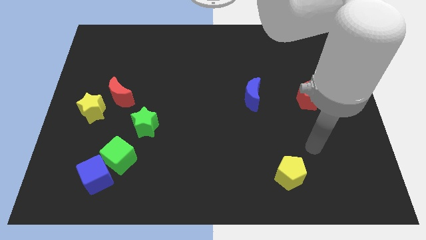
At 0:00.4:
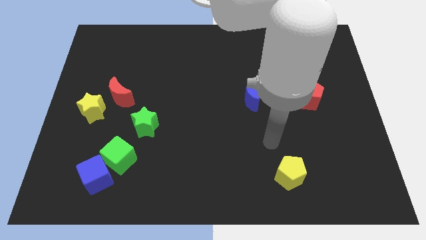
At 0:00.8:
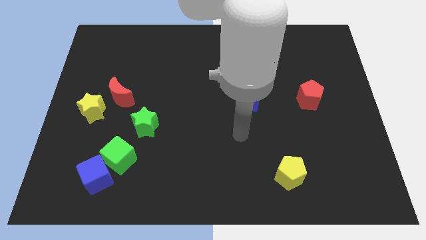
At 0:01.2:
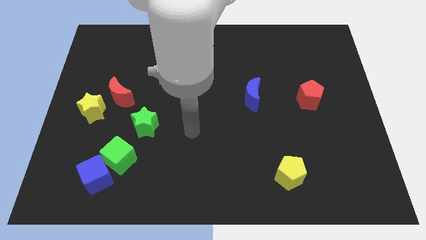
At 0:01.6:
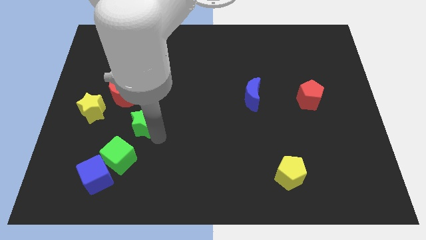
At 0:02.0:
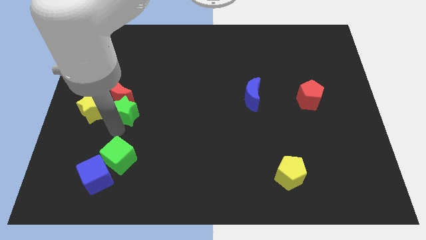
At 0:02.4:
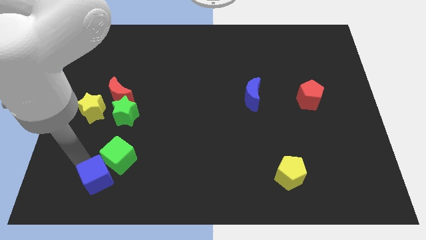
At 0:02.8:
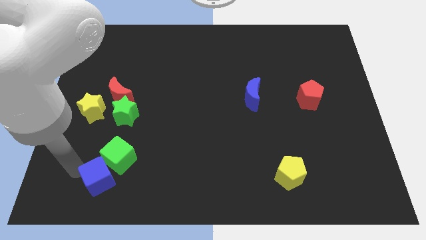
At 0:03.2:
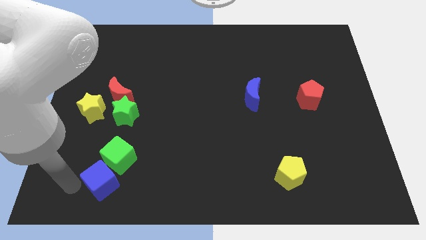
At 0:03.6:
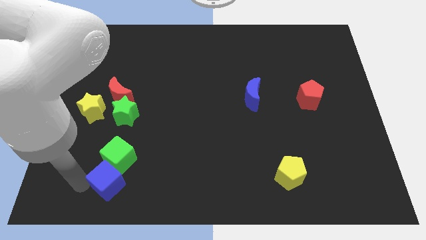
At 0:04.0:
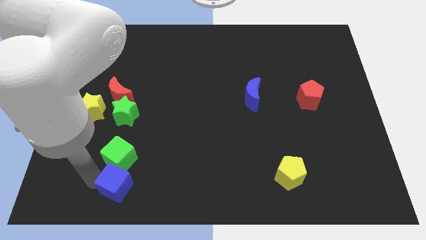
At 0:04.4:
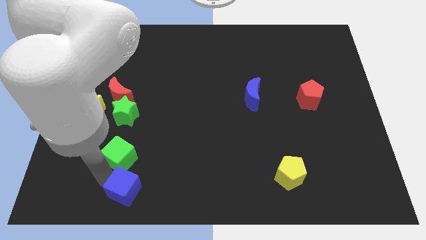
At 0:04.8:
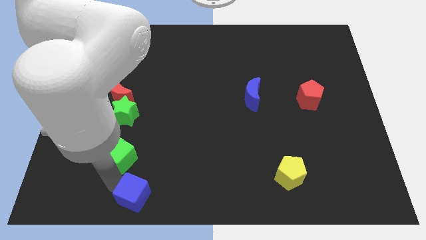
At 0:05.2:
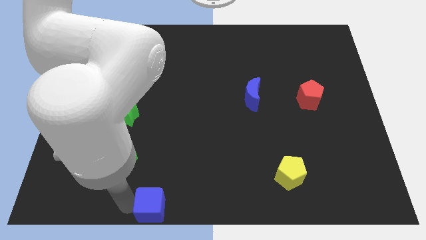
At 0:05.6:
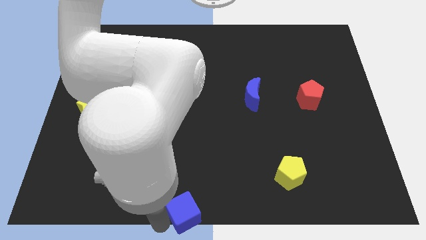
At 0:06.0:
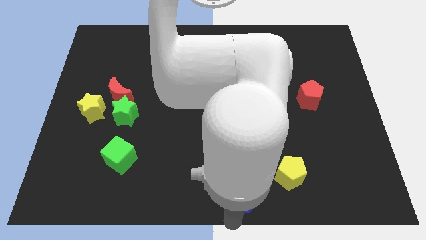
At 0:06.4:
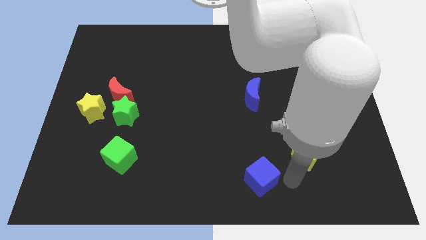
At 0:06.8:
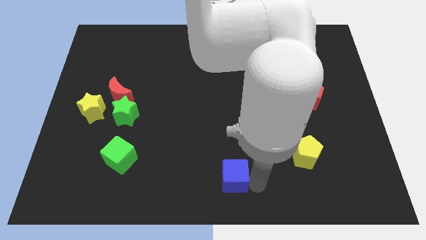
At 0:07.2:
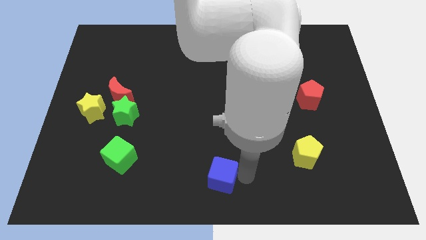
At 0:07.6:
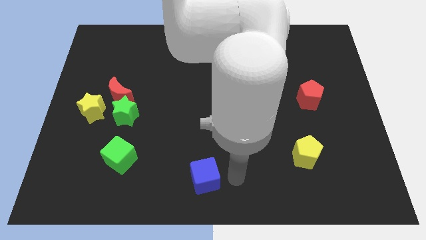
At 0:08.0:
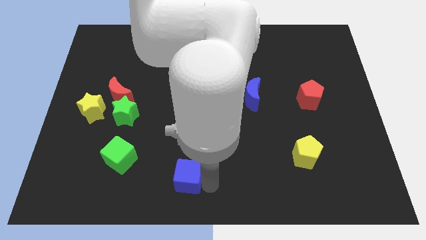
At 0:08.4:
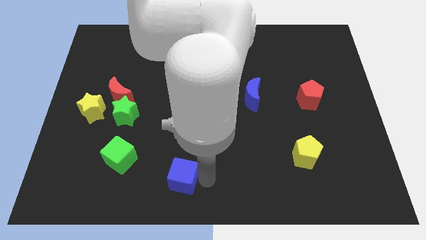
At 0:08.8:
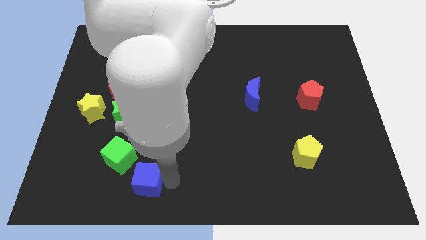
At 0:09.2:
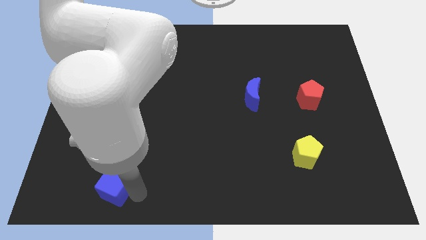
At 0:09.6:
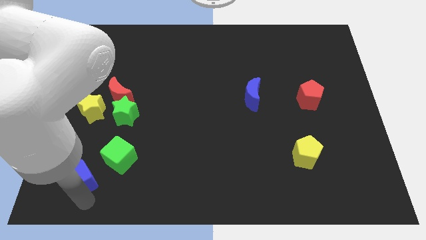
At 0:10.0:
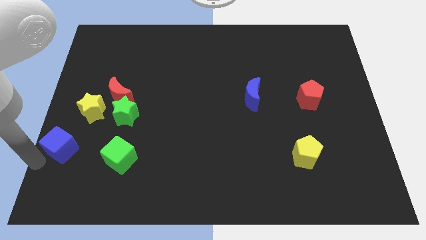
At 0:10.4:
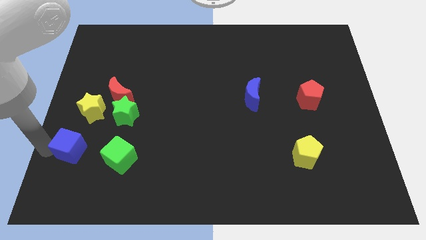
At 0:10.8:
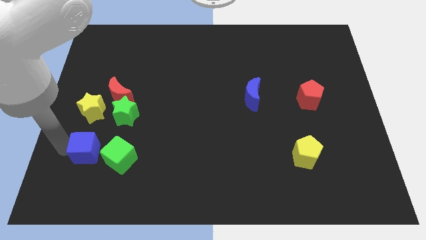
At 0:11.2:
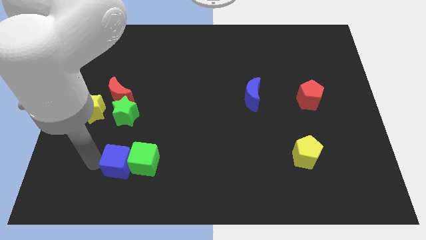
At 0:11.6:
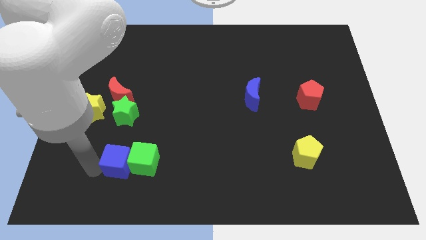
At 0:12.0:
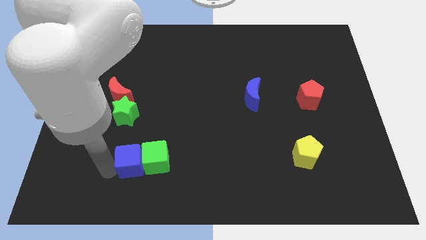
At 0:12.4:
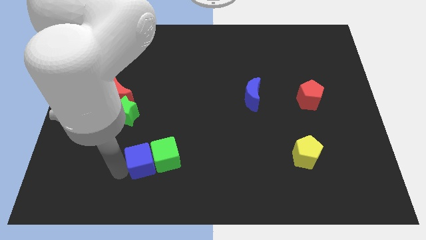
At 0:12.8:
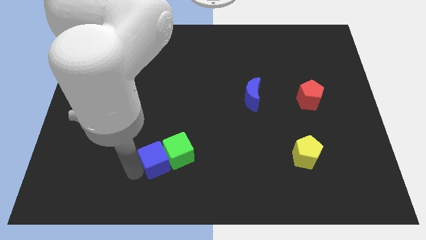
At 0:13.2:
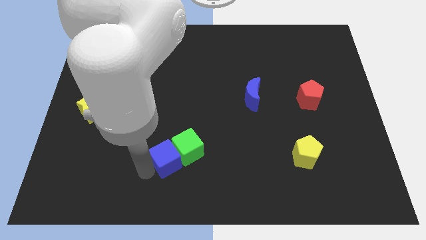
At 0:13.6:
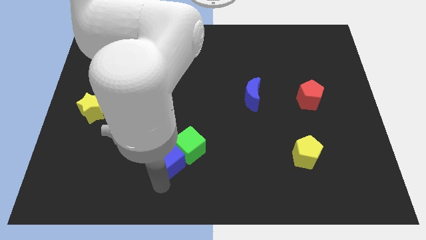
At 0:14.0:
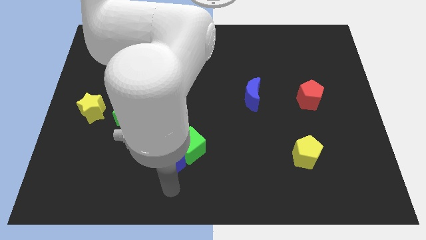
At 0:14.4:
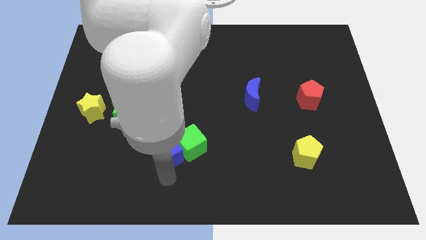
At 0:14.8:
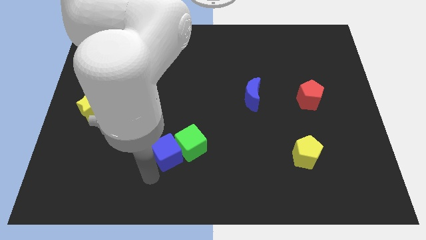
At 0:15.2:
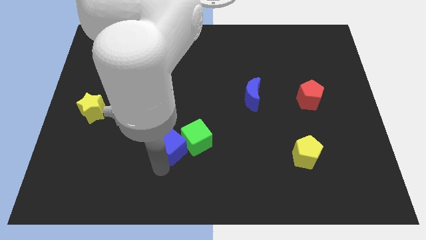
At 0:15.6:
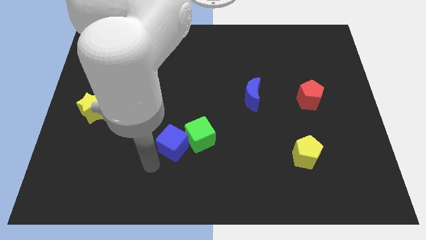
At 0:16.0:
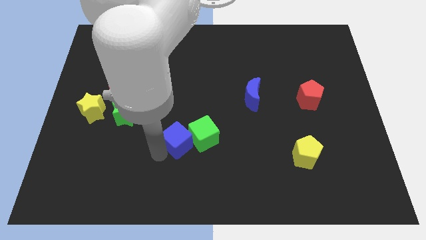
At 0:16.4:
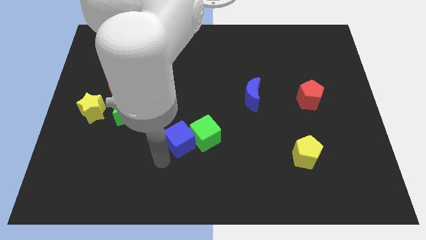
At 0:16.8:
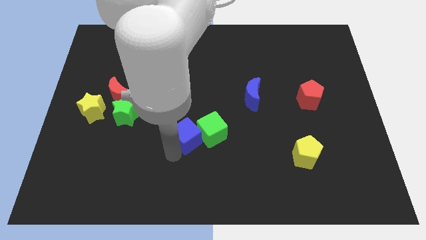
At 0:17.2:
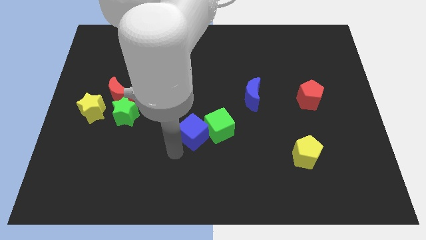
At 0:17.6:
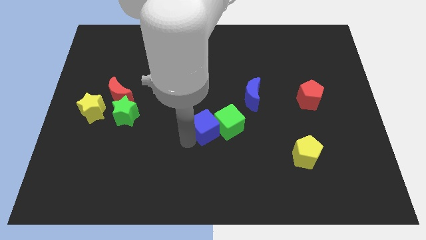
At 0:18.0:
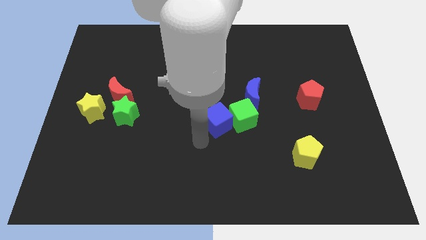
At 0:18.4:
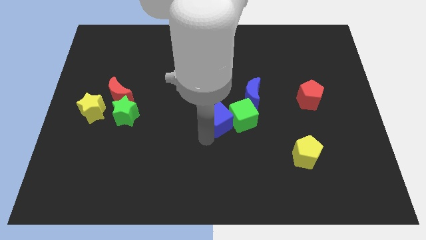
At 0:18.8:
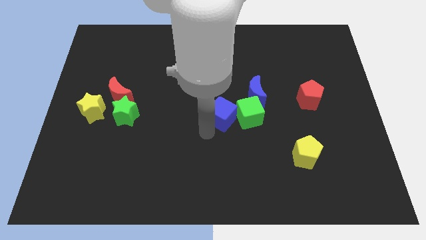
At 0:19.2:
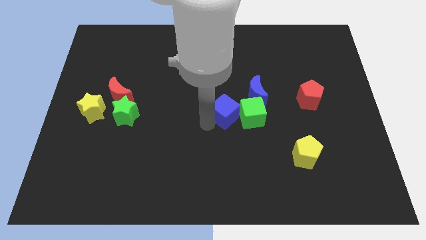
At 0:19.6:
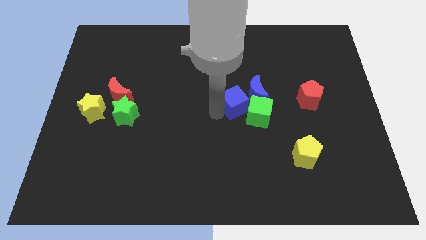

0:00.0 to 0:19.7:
push the blue cube next to the blue moon

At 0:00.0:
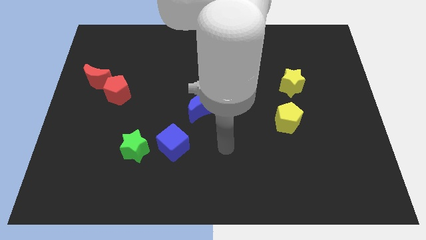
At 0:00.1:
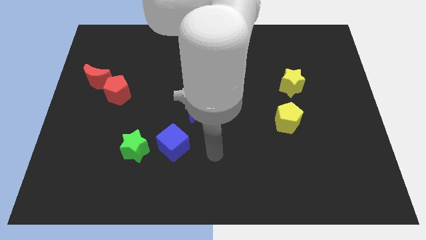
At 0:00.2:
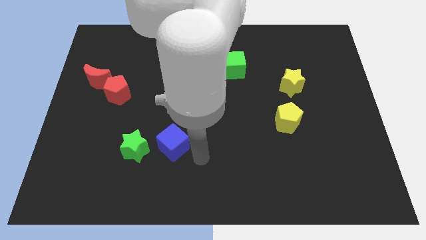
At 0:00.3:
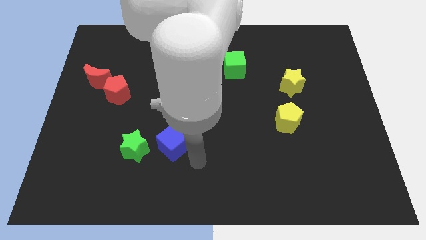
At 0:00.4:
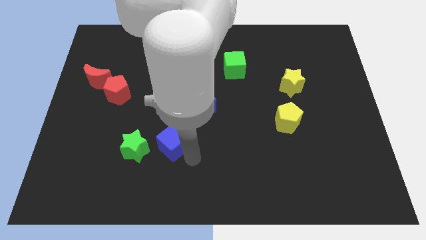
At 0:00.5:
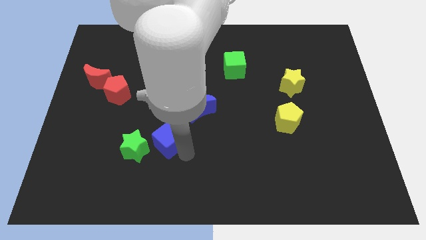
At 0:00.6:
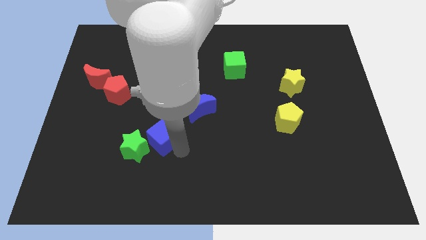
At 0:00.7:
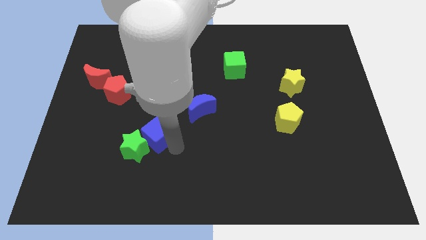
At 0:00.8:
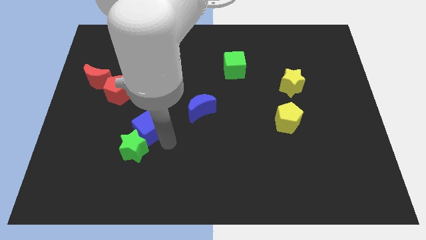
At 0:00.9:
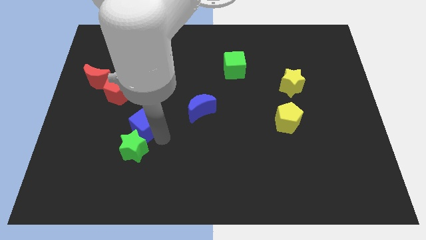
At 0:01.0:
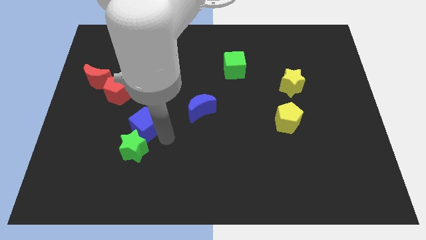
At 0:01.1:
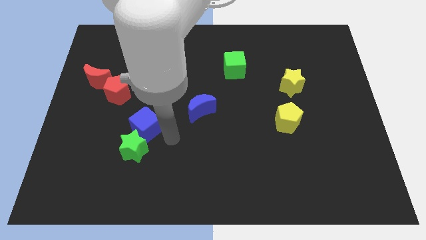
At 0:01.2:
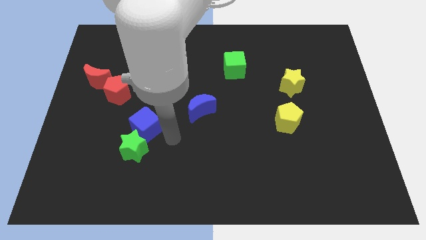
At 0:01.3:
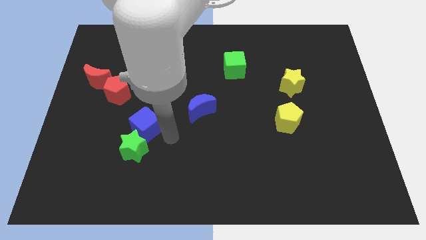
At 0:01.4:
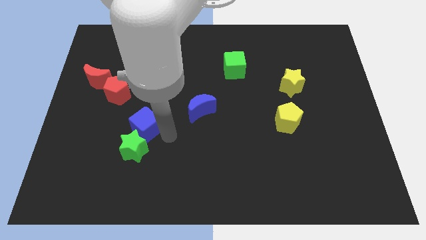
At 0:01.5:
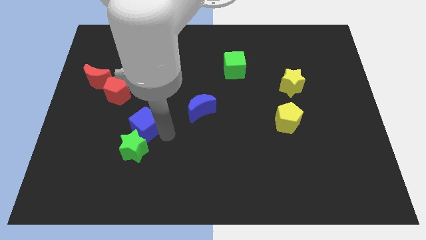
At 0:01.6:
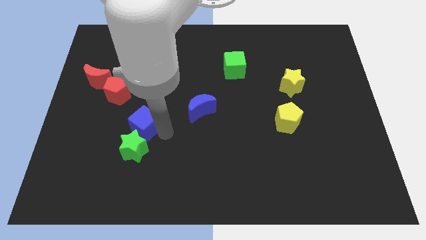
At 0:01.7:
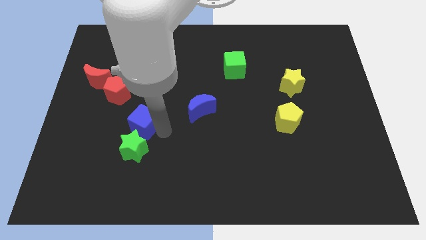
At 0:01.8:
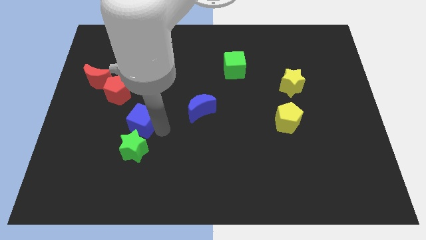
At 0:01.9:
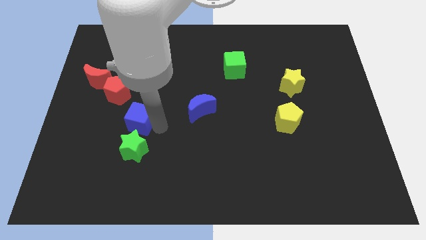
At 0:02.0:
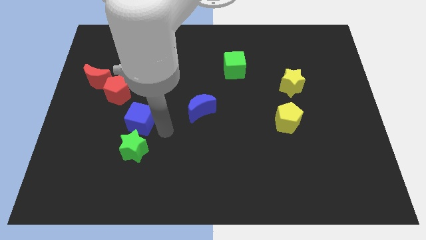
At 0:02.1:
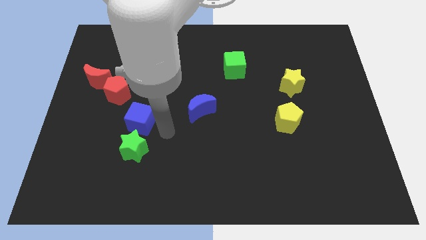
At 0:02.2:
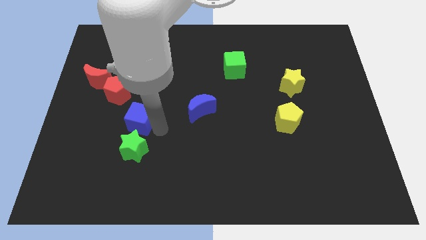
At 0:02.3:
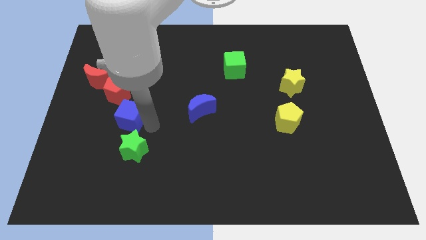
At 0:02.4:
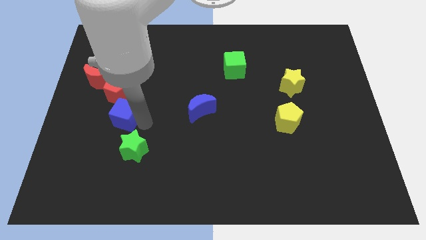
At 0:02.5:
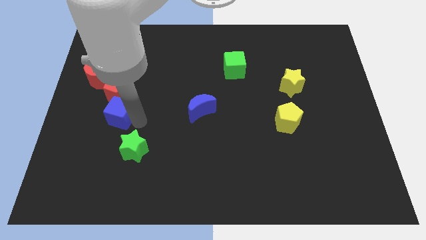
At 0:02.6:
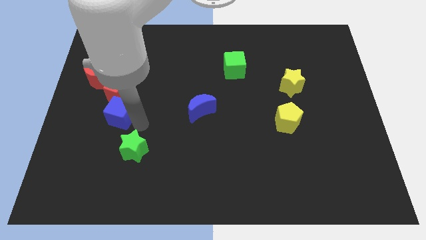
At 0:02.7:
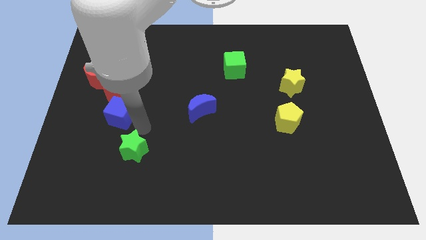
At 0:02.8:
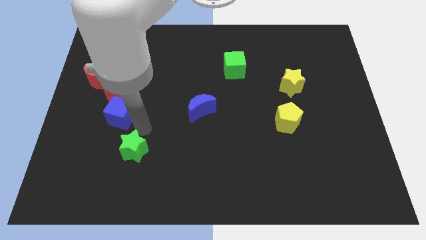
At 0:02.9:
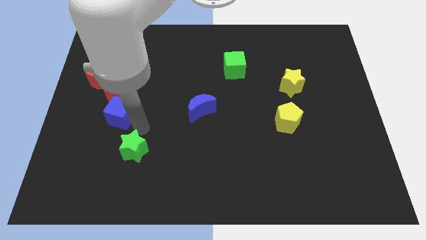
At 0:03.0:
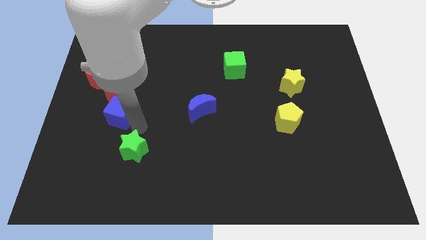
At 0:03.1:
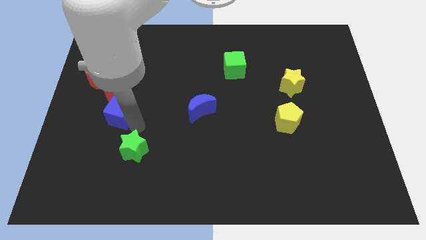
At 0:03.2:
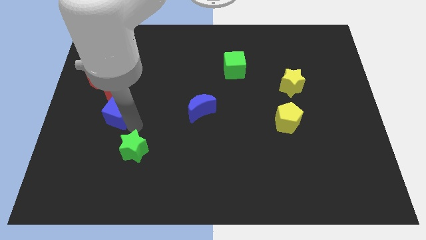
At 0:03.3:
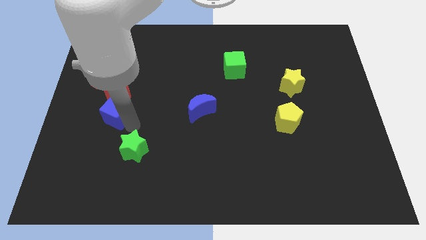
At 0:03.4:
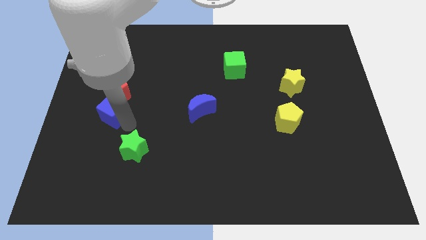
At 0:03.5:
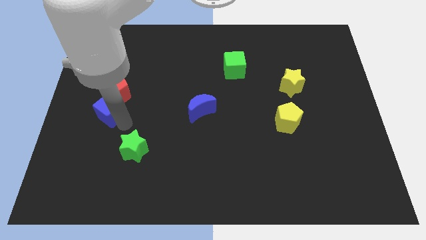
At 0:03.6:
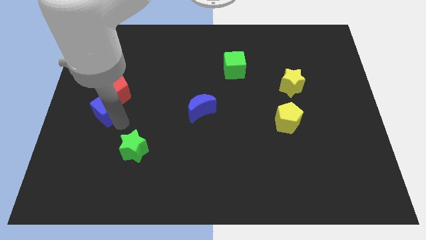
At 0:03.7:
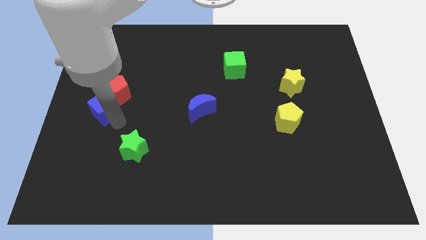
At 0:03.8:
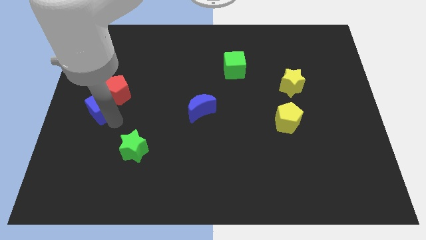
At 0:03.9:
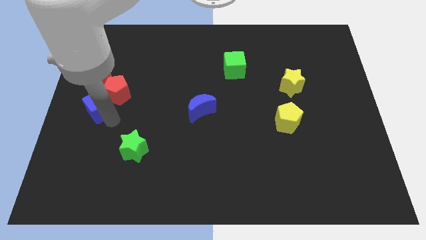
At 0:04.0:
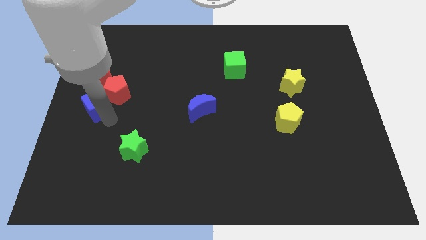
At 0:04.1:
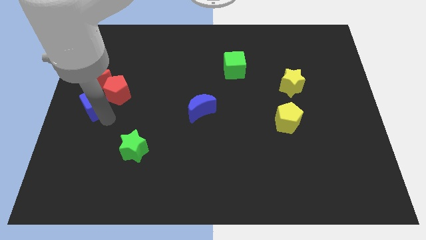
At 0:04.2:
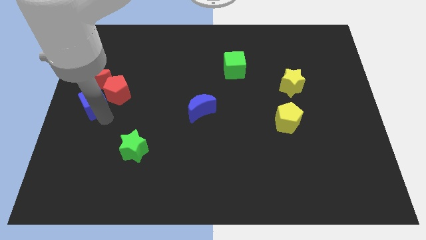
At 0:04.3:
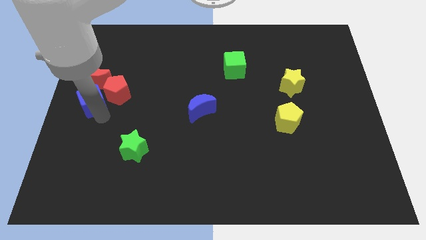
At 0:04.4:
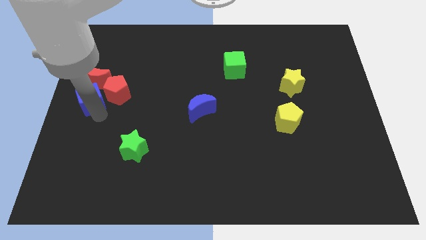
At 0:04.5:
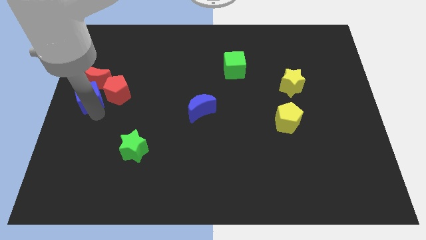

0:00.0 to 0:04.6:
slide the blue cube to the red moon
